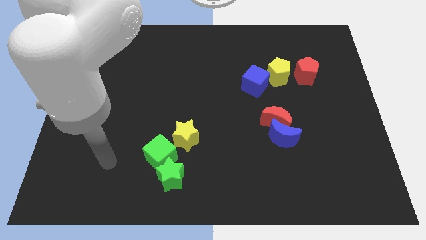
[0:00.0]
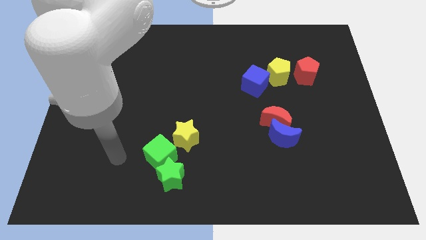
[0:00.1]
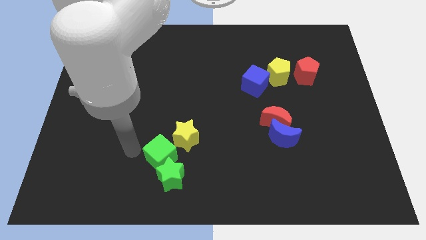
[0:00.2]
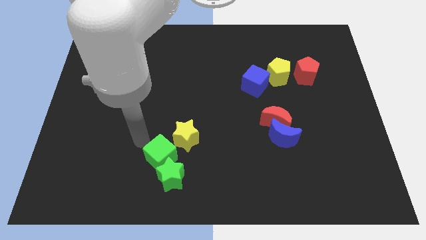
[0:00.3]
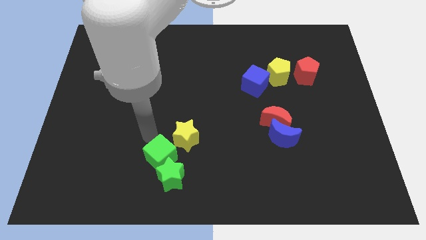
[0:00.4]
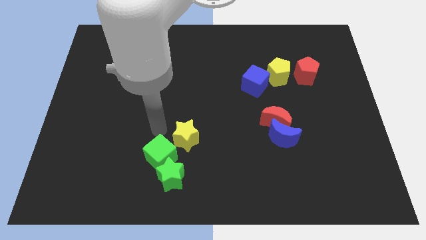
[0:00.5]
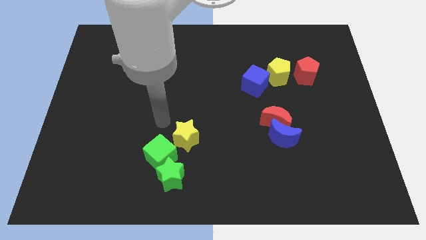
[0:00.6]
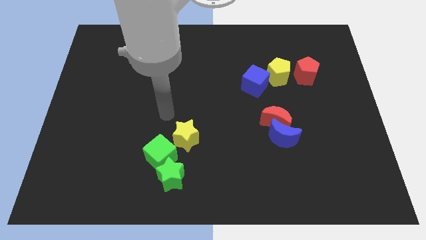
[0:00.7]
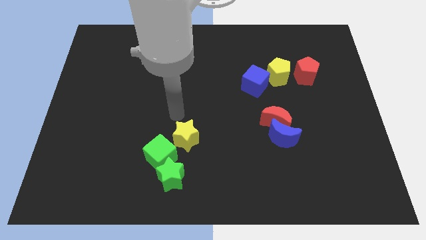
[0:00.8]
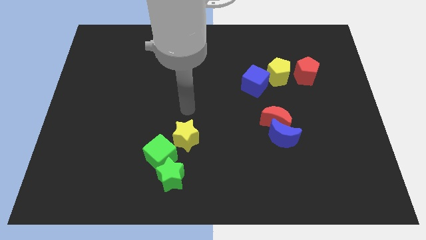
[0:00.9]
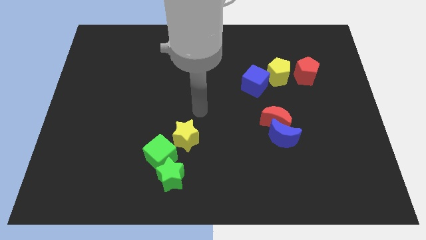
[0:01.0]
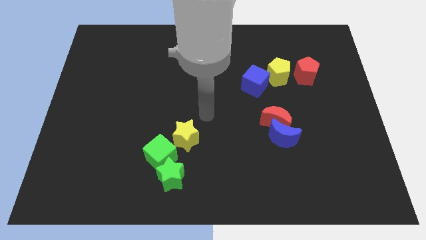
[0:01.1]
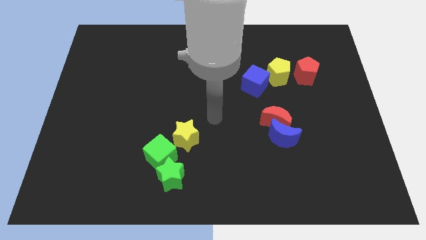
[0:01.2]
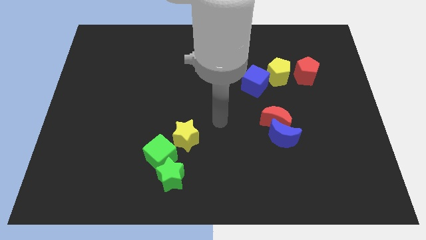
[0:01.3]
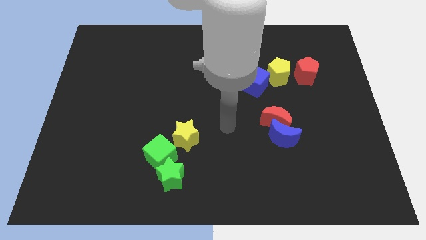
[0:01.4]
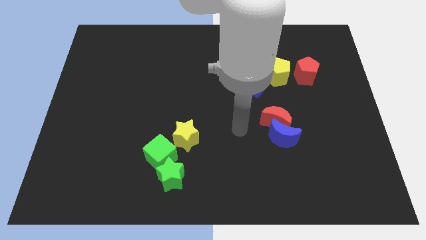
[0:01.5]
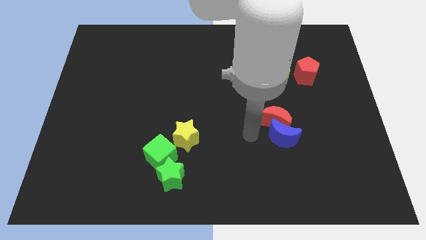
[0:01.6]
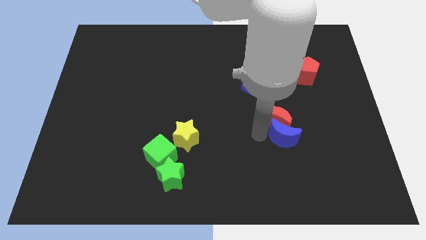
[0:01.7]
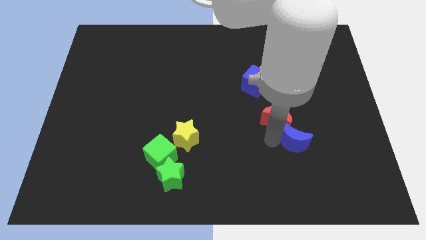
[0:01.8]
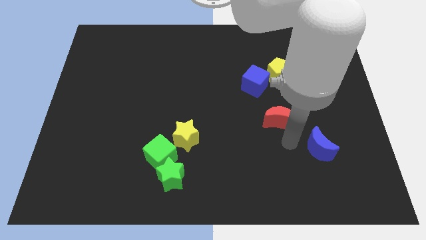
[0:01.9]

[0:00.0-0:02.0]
separate the red moon from the blue moon

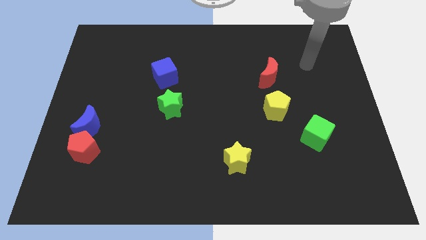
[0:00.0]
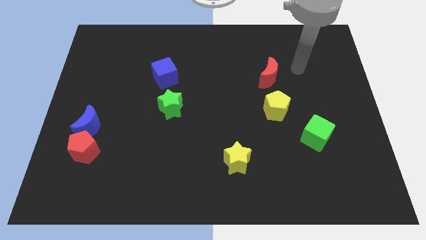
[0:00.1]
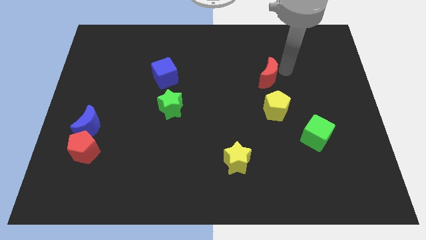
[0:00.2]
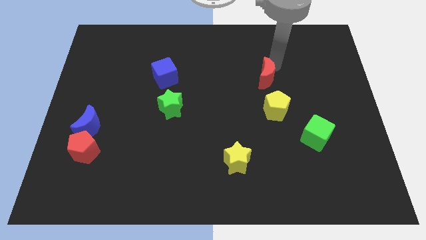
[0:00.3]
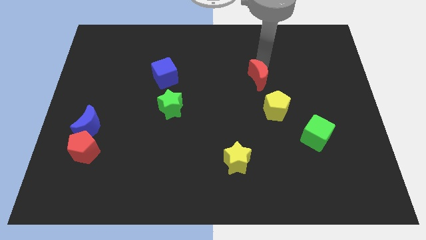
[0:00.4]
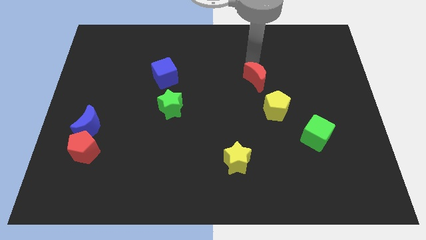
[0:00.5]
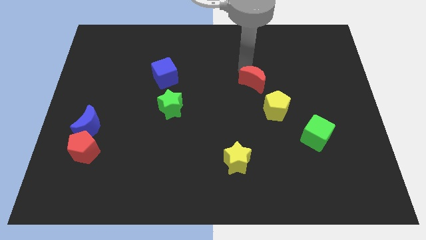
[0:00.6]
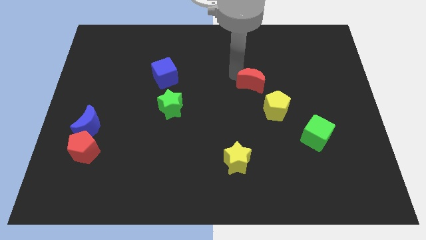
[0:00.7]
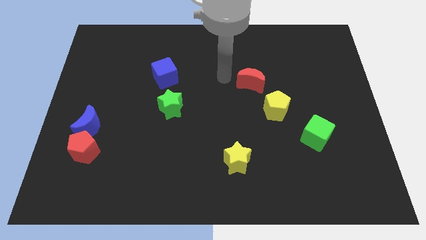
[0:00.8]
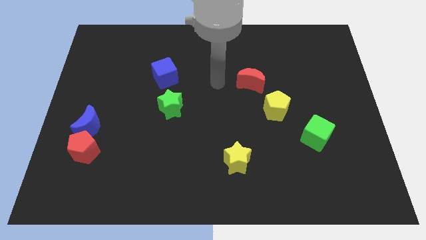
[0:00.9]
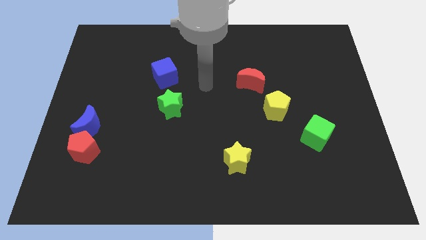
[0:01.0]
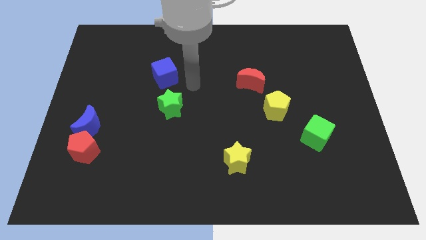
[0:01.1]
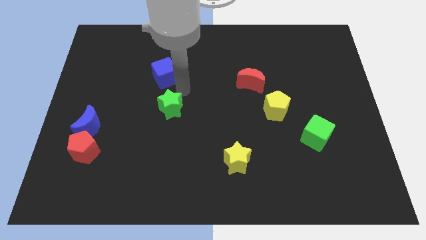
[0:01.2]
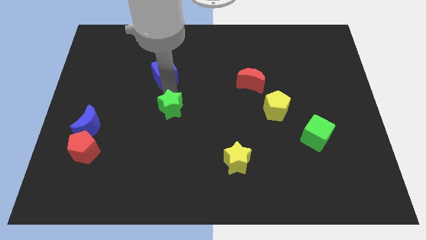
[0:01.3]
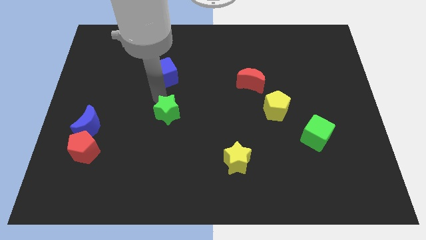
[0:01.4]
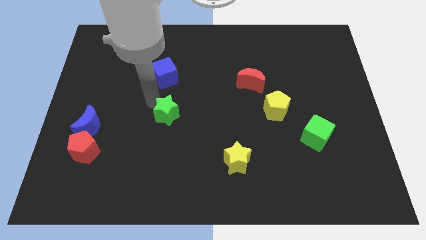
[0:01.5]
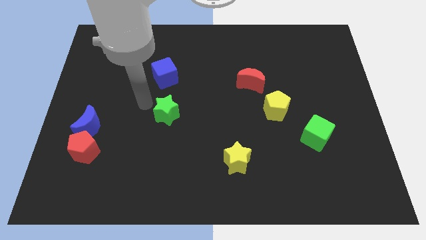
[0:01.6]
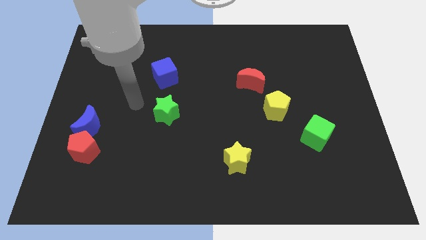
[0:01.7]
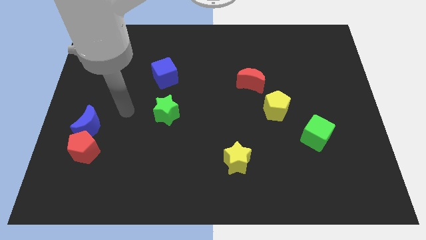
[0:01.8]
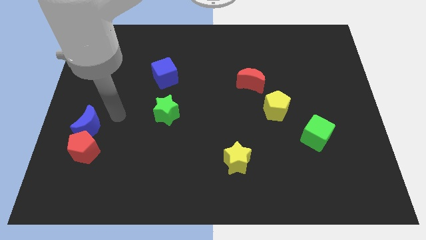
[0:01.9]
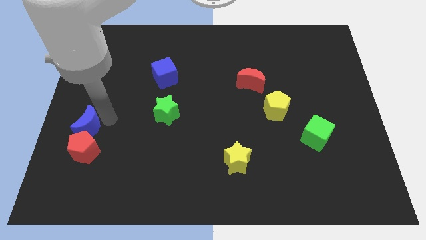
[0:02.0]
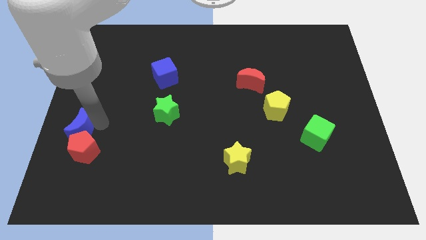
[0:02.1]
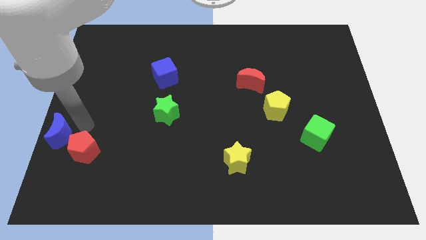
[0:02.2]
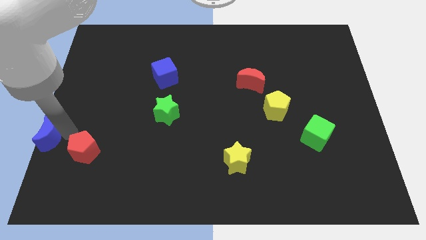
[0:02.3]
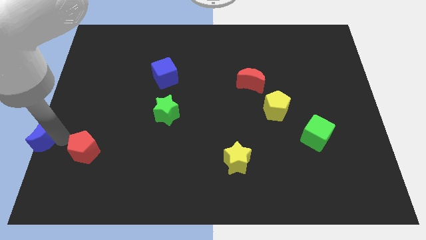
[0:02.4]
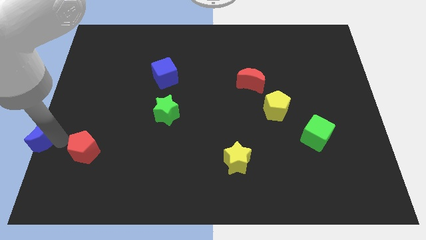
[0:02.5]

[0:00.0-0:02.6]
separate the red pentagon from the blue moon

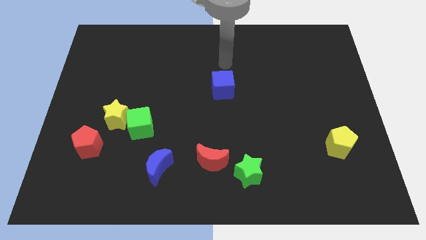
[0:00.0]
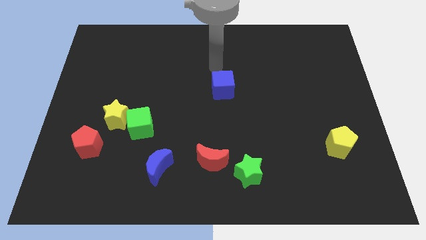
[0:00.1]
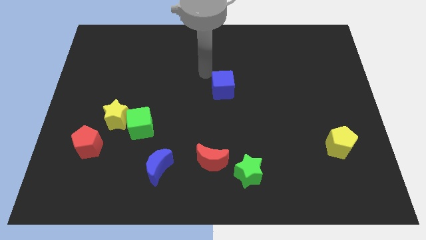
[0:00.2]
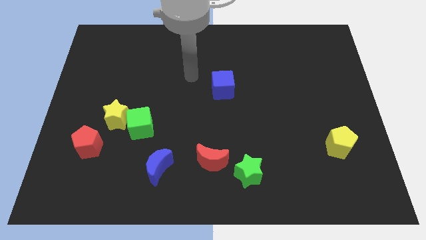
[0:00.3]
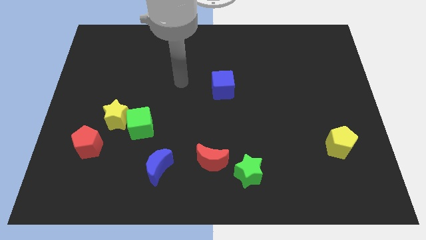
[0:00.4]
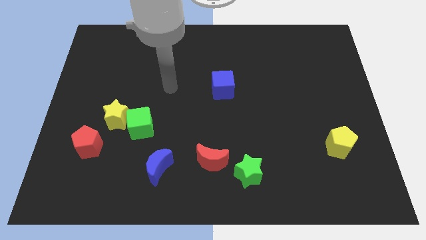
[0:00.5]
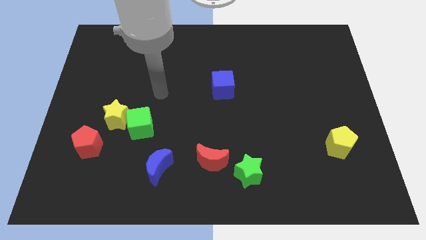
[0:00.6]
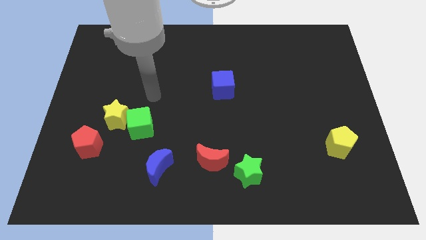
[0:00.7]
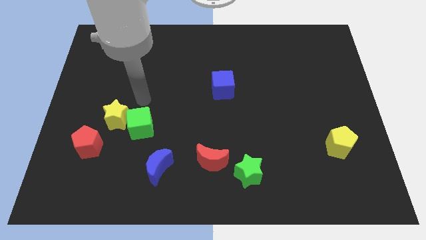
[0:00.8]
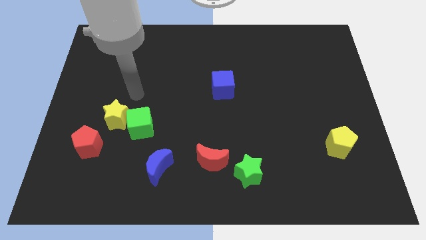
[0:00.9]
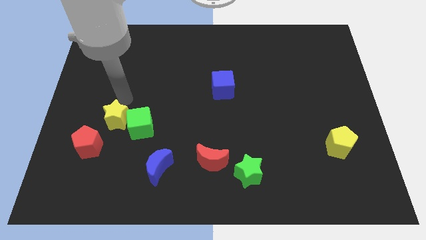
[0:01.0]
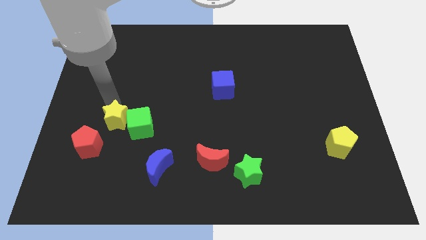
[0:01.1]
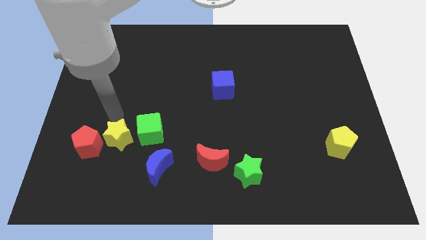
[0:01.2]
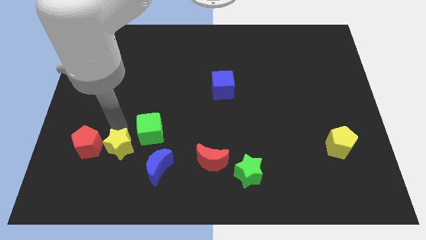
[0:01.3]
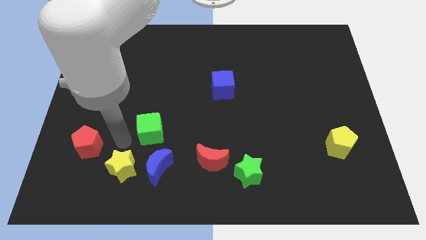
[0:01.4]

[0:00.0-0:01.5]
move the green cube away from the yellow star

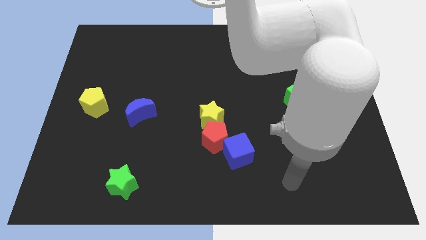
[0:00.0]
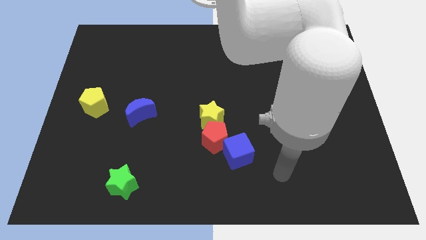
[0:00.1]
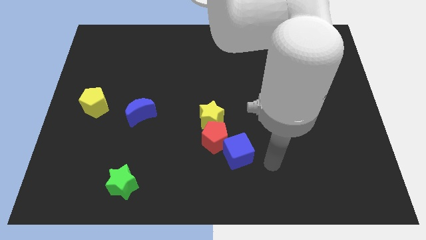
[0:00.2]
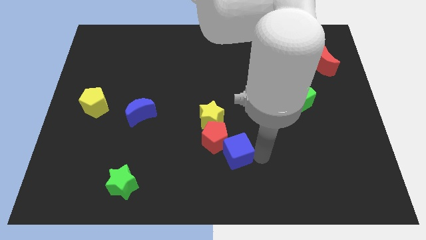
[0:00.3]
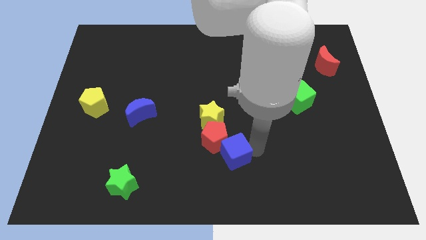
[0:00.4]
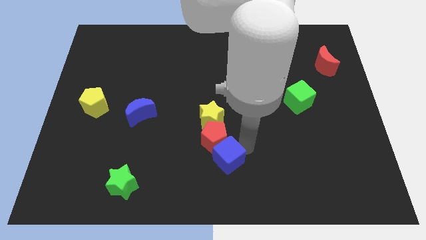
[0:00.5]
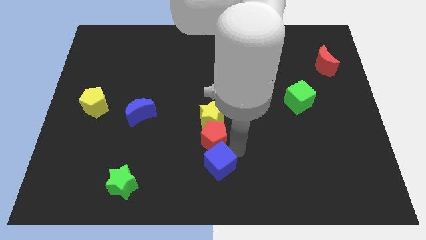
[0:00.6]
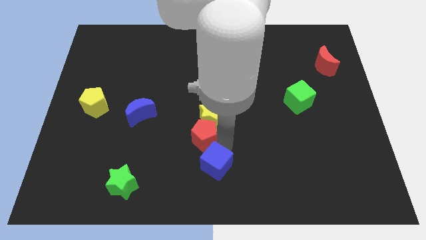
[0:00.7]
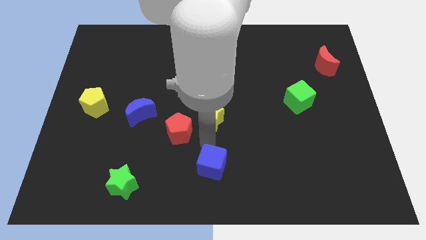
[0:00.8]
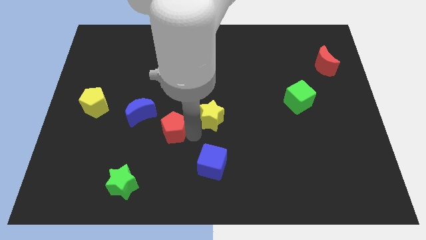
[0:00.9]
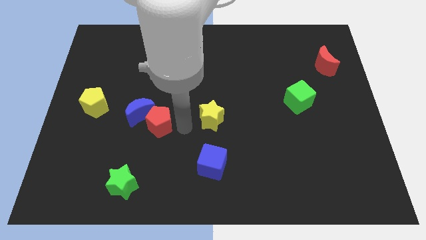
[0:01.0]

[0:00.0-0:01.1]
separate the yellow star from the red pentagon

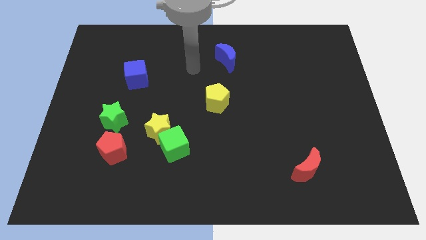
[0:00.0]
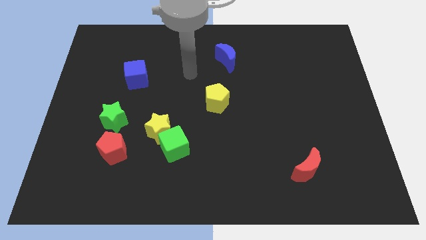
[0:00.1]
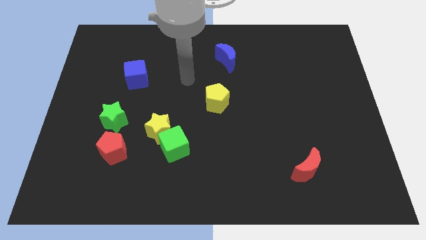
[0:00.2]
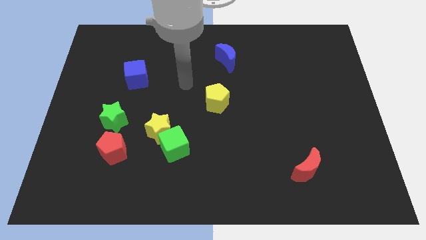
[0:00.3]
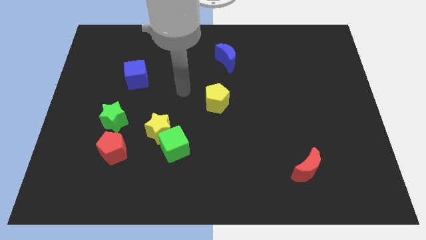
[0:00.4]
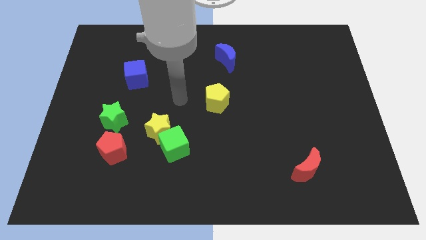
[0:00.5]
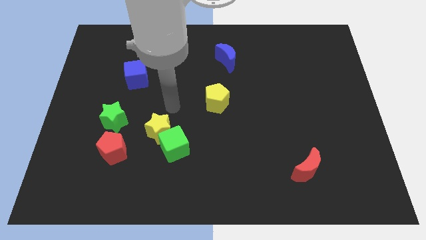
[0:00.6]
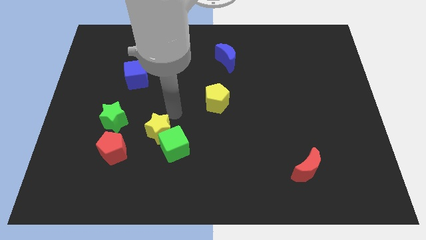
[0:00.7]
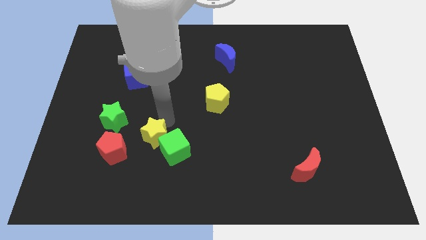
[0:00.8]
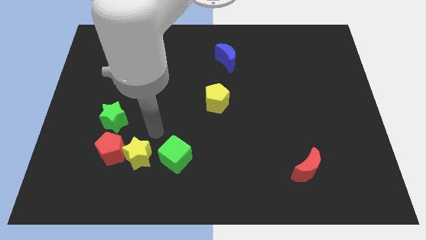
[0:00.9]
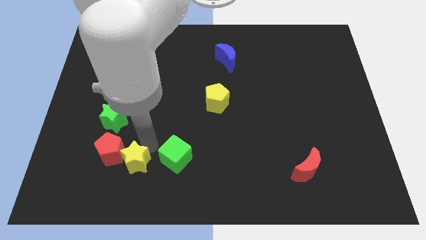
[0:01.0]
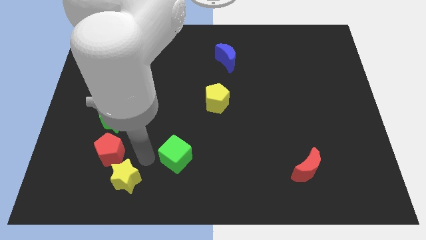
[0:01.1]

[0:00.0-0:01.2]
separate the green cube from the yellow star

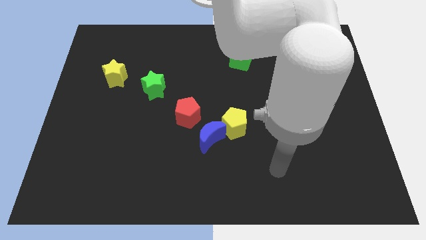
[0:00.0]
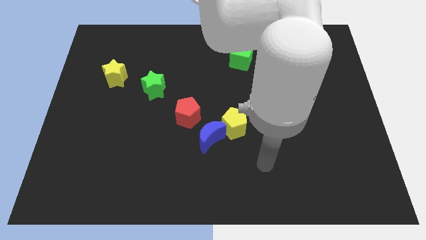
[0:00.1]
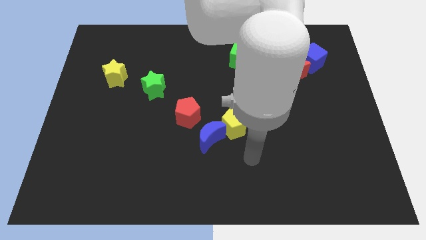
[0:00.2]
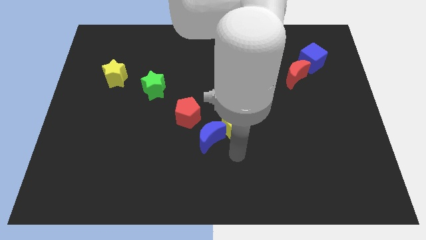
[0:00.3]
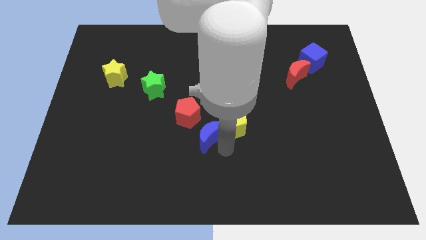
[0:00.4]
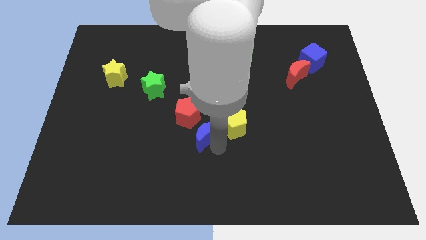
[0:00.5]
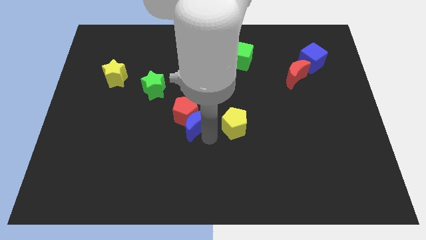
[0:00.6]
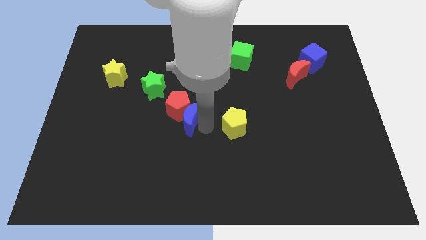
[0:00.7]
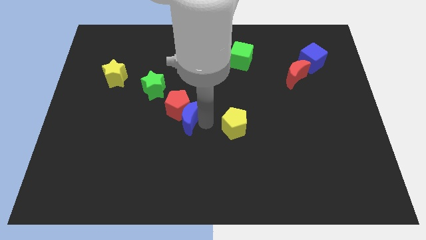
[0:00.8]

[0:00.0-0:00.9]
pull the yellow pentagon apart from the blue moon
